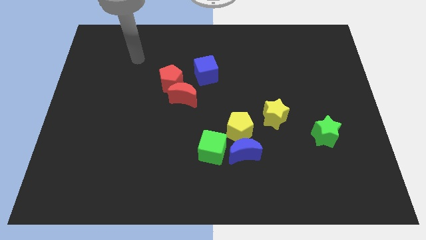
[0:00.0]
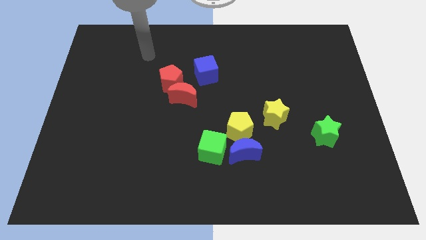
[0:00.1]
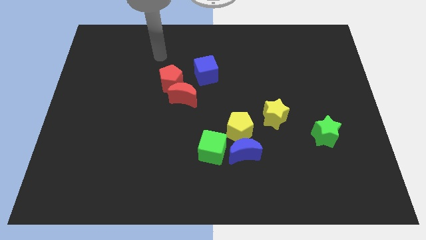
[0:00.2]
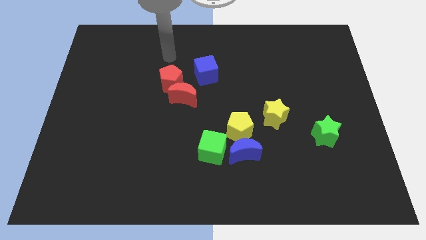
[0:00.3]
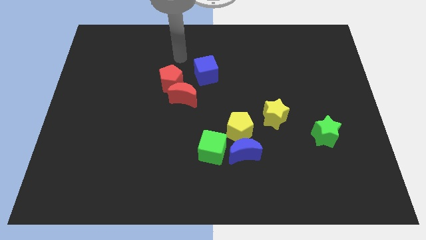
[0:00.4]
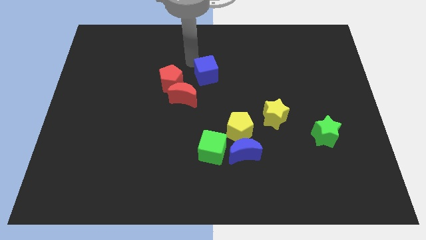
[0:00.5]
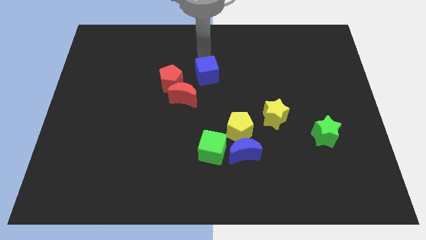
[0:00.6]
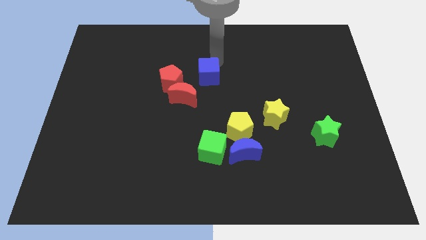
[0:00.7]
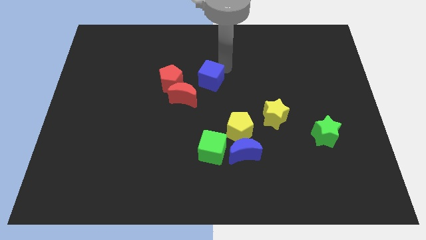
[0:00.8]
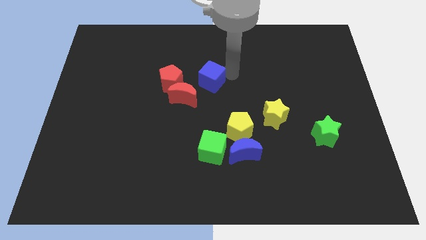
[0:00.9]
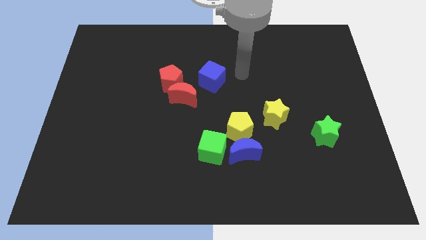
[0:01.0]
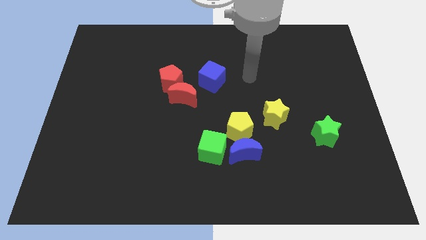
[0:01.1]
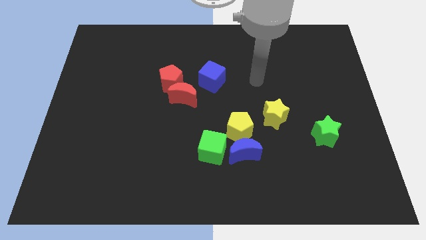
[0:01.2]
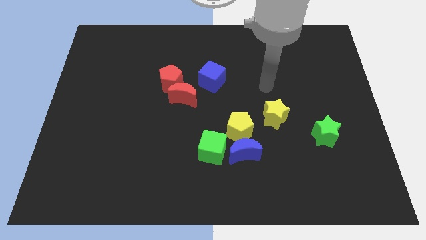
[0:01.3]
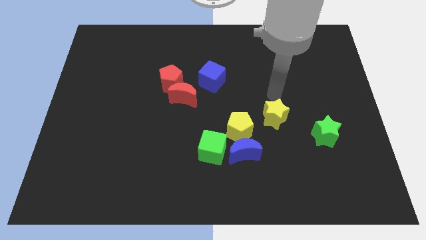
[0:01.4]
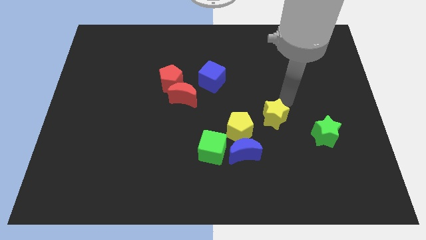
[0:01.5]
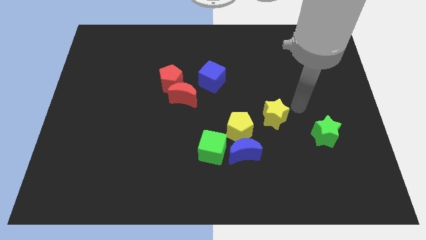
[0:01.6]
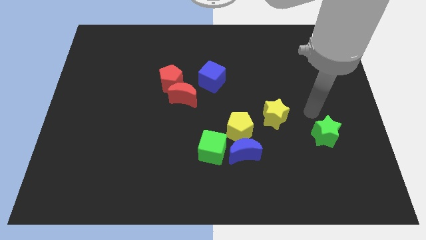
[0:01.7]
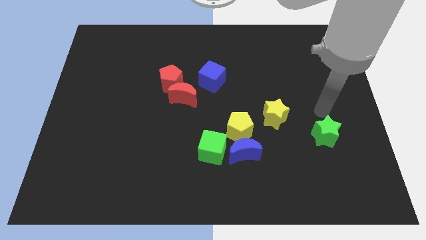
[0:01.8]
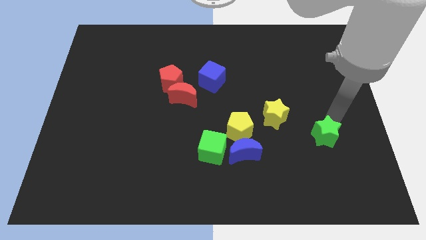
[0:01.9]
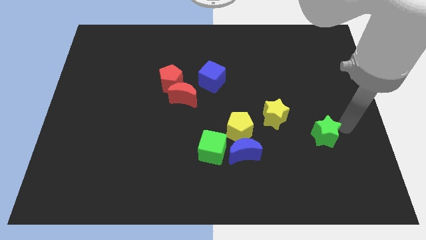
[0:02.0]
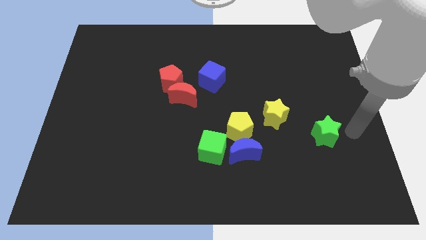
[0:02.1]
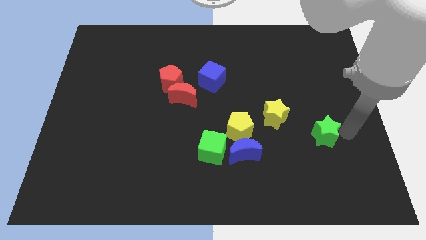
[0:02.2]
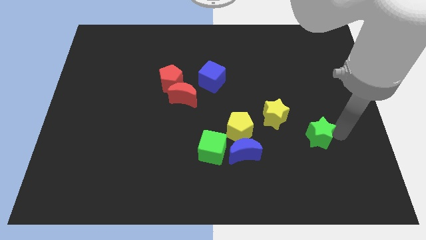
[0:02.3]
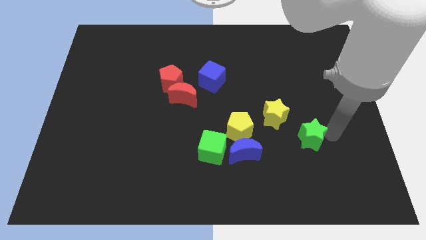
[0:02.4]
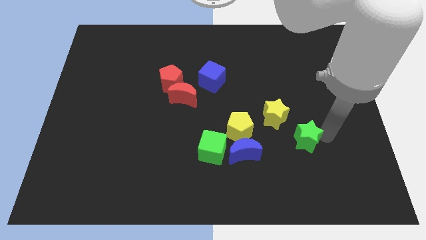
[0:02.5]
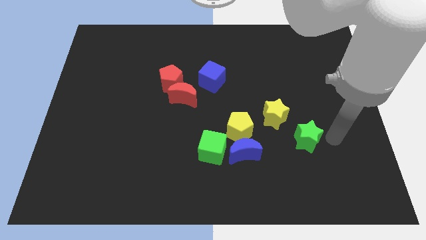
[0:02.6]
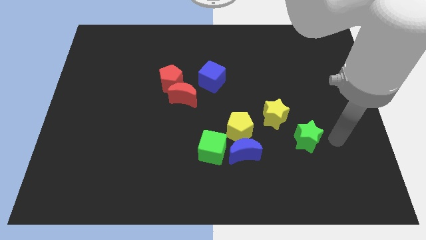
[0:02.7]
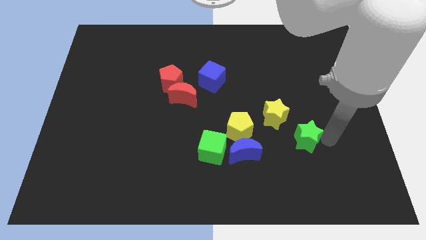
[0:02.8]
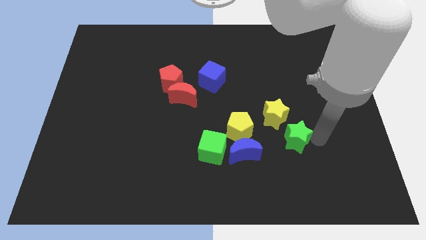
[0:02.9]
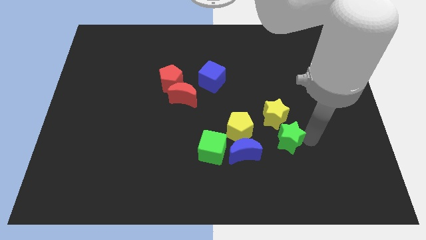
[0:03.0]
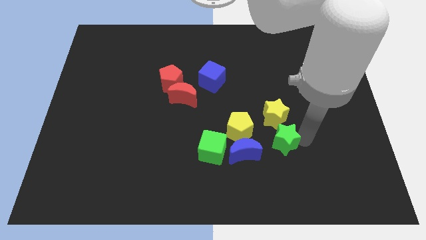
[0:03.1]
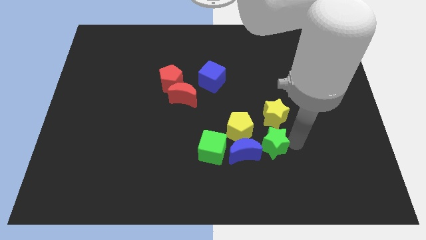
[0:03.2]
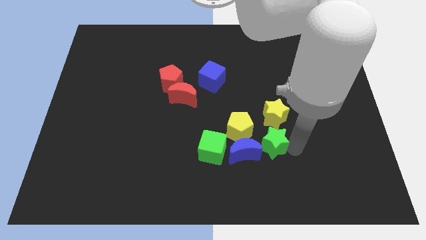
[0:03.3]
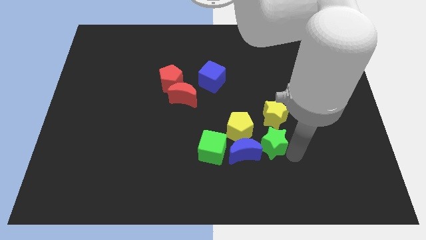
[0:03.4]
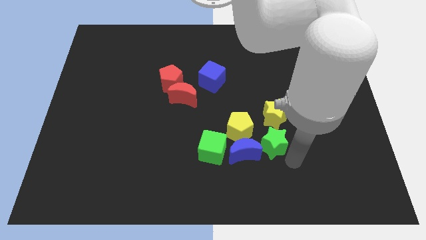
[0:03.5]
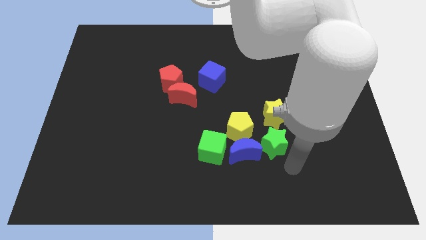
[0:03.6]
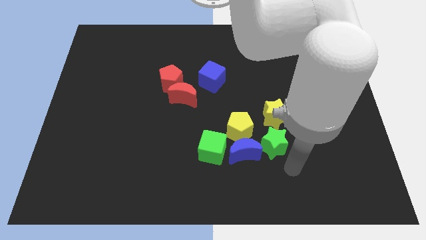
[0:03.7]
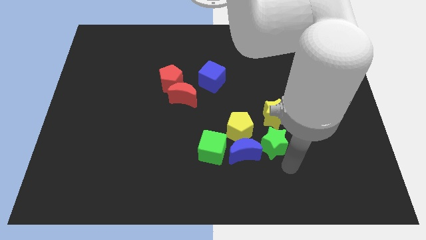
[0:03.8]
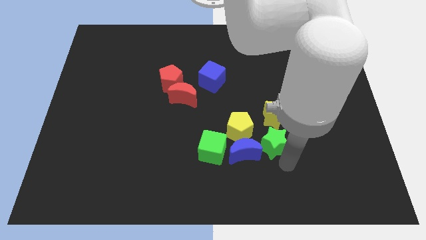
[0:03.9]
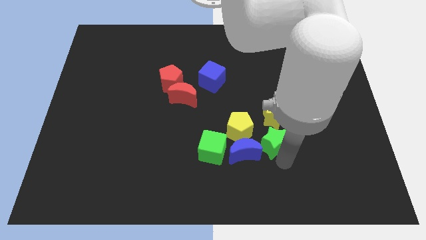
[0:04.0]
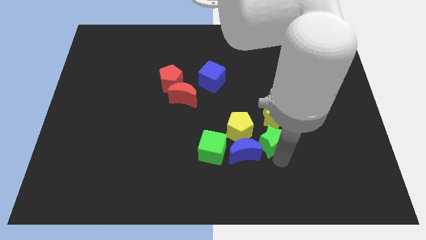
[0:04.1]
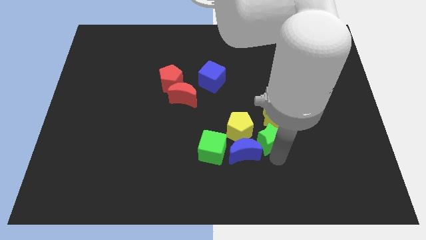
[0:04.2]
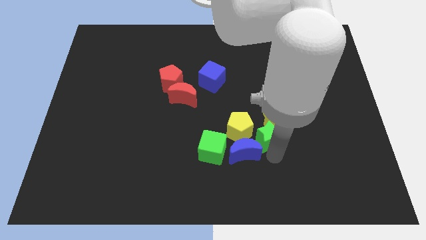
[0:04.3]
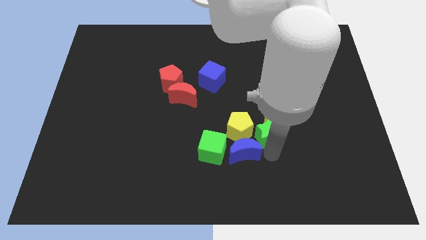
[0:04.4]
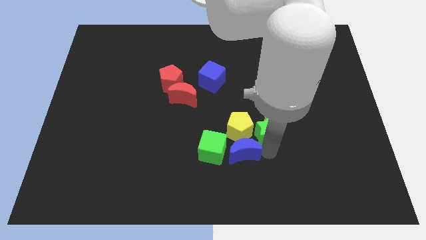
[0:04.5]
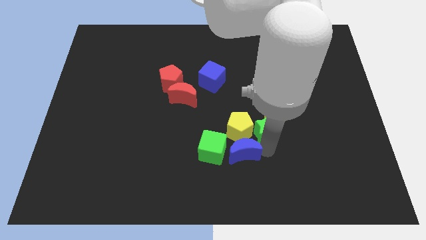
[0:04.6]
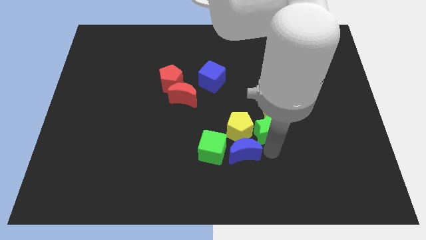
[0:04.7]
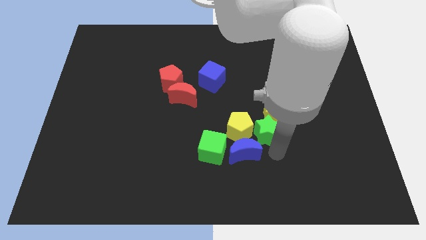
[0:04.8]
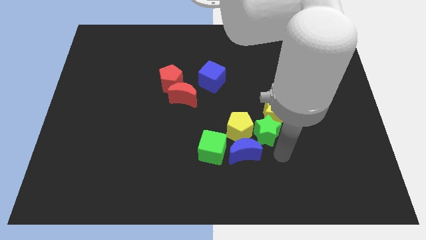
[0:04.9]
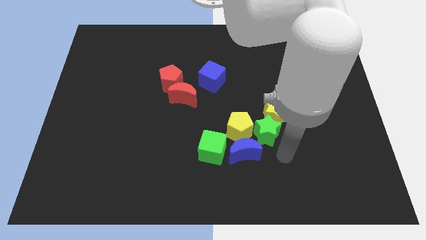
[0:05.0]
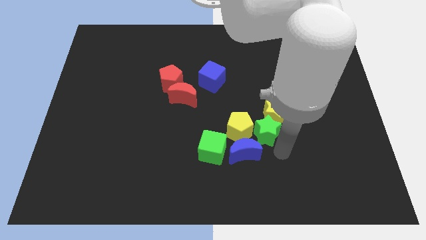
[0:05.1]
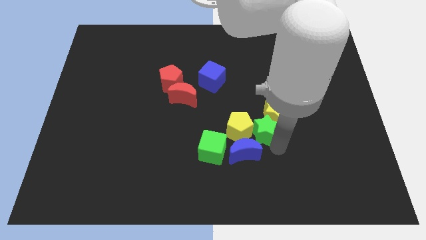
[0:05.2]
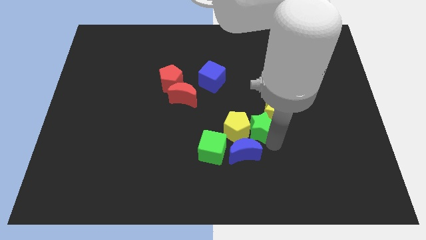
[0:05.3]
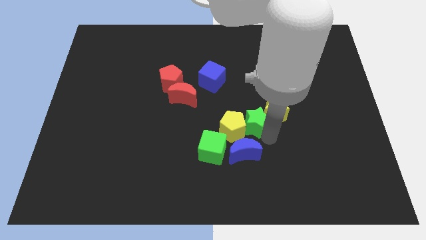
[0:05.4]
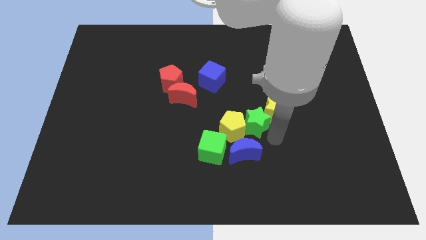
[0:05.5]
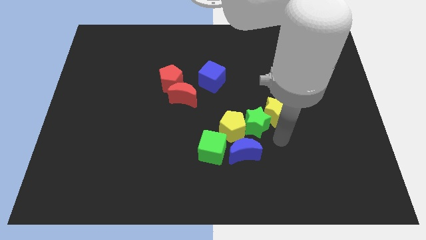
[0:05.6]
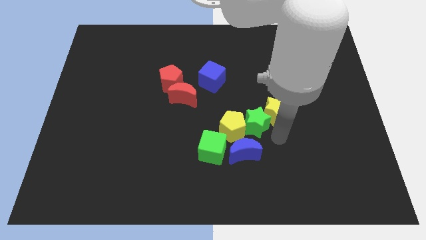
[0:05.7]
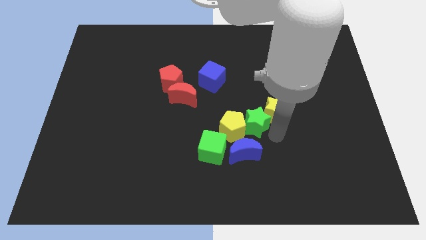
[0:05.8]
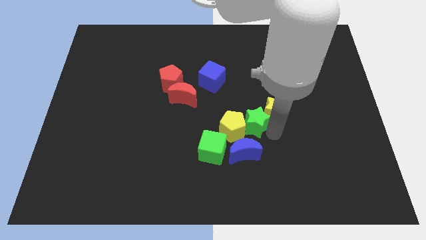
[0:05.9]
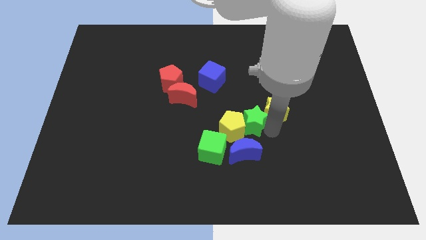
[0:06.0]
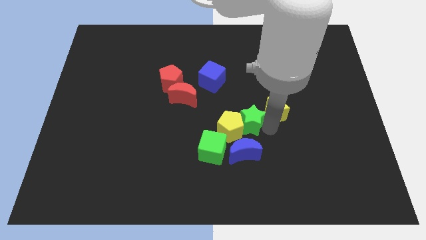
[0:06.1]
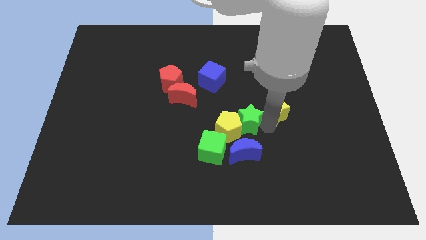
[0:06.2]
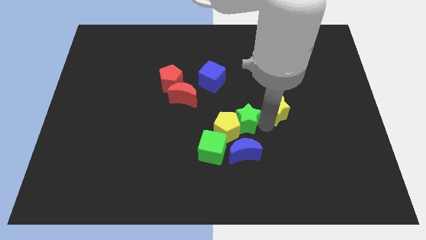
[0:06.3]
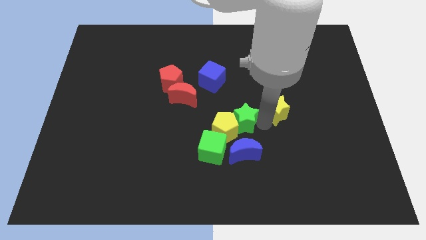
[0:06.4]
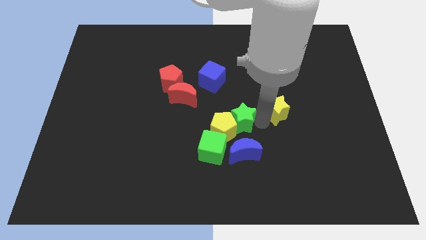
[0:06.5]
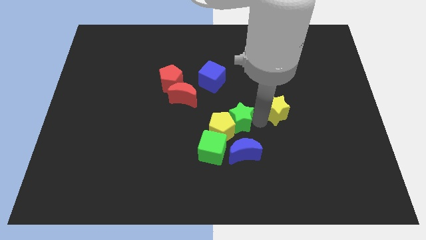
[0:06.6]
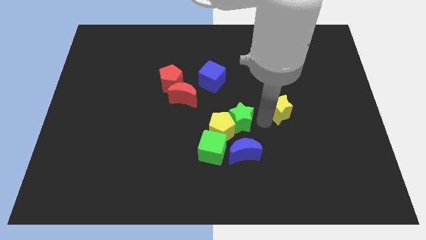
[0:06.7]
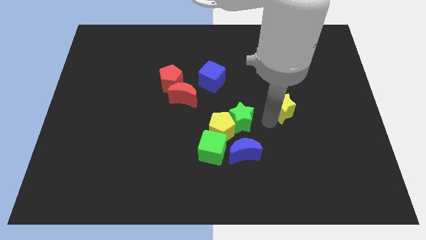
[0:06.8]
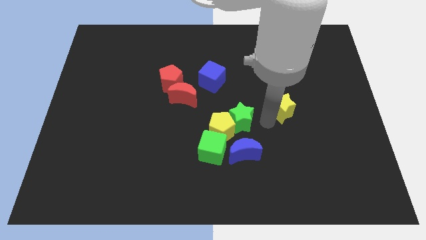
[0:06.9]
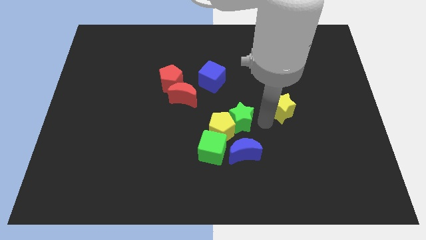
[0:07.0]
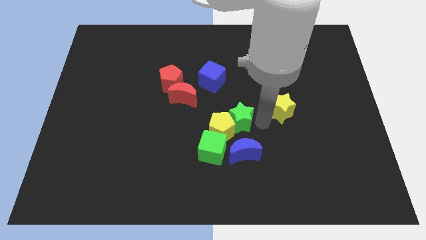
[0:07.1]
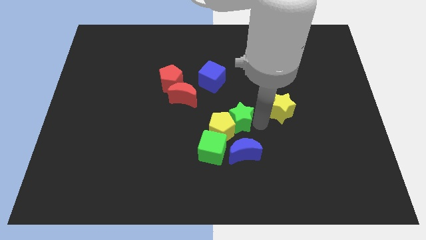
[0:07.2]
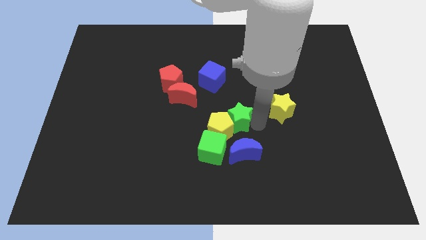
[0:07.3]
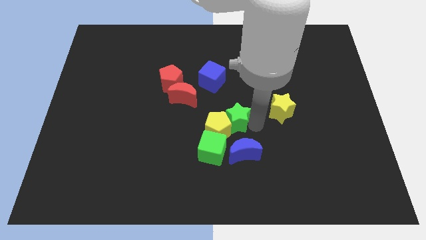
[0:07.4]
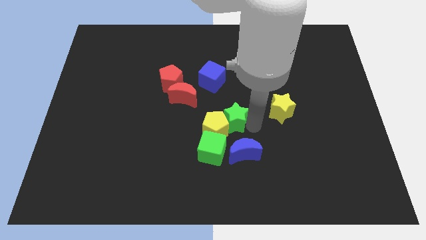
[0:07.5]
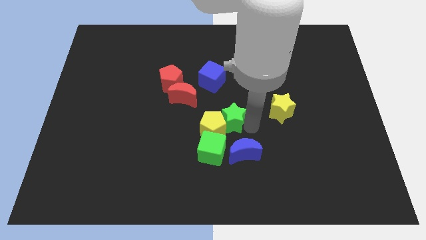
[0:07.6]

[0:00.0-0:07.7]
move the green star left

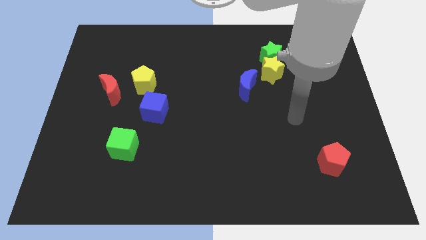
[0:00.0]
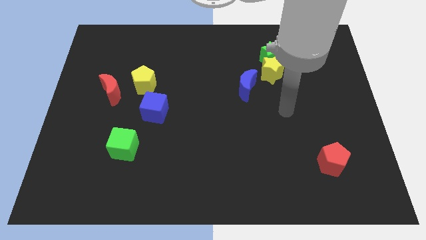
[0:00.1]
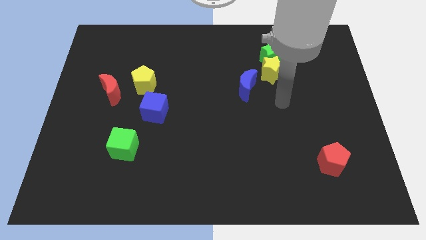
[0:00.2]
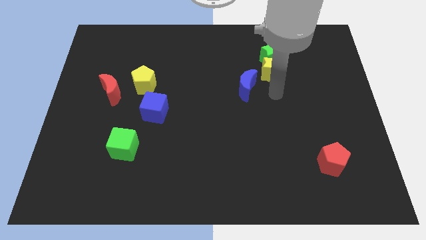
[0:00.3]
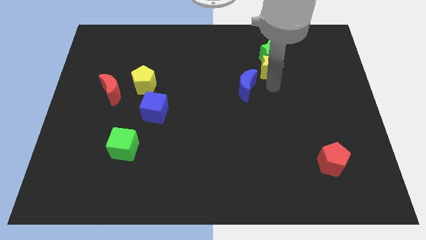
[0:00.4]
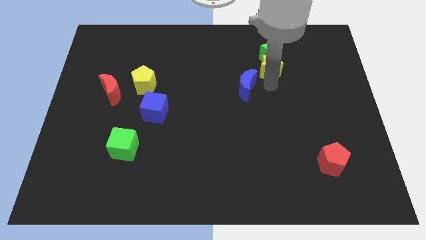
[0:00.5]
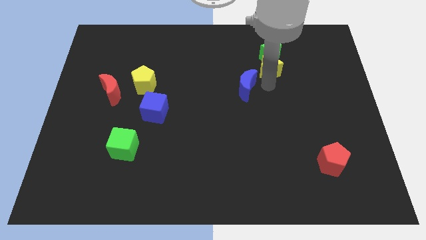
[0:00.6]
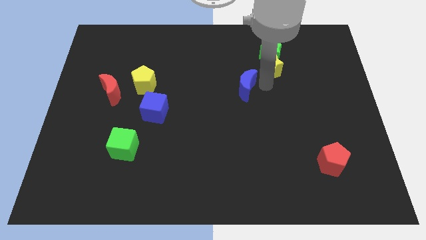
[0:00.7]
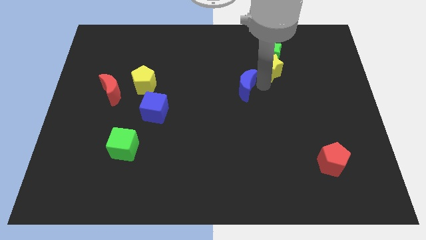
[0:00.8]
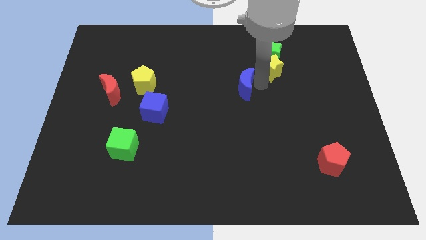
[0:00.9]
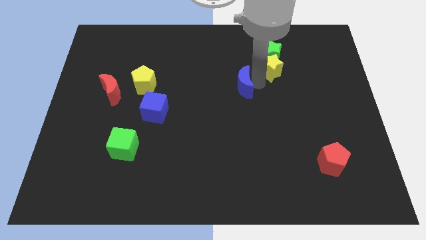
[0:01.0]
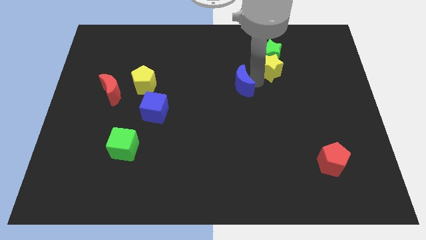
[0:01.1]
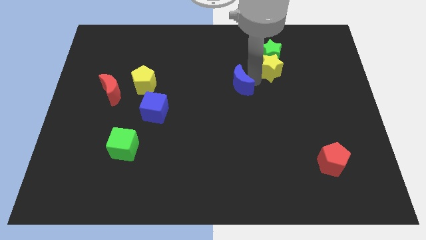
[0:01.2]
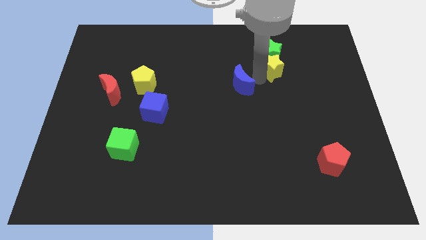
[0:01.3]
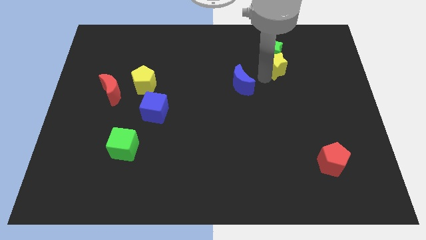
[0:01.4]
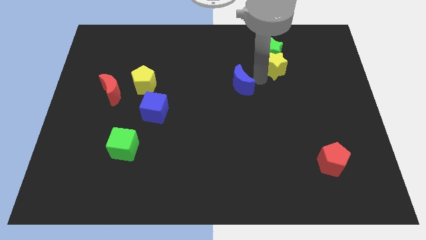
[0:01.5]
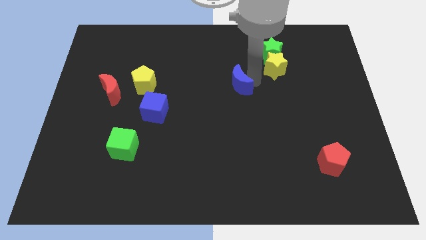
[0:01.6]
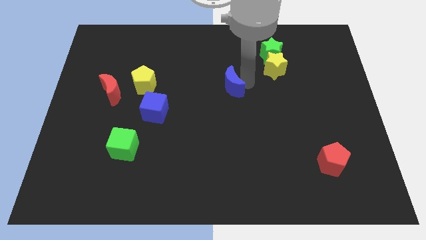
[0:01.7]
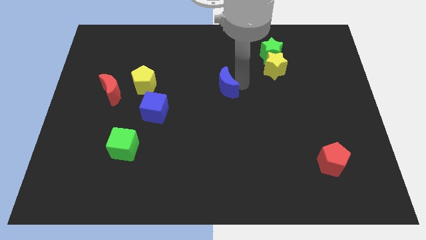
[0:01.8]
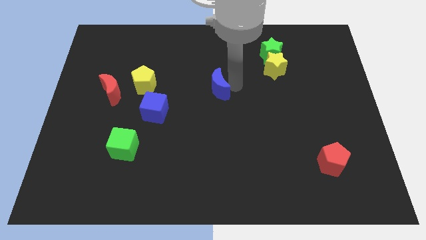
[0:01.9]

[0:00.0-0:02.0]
push the blue moon to the left a little
